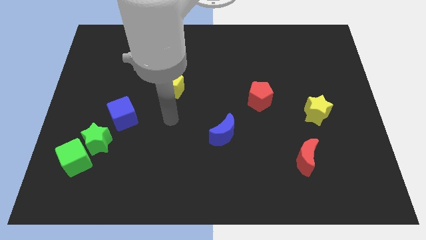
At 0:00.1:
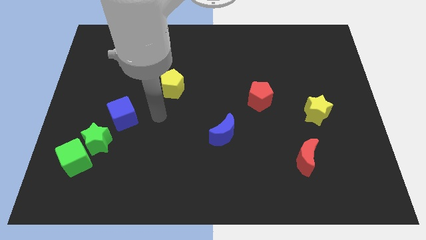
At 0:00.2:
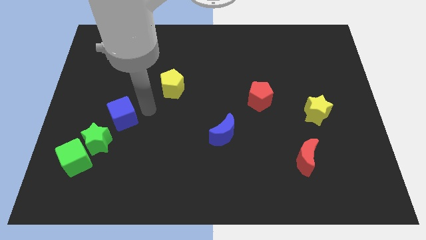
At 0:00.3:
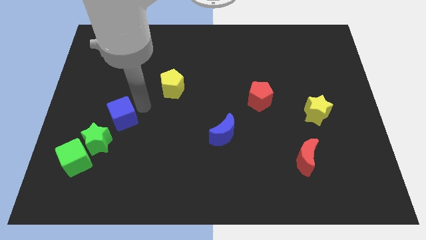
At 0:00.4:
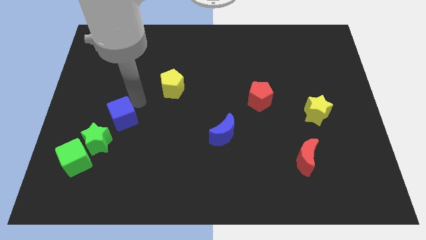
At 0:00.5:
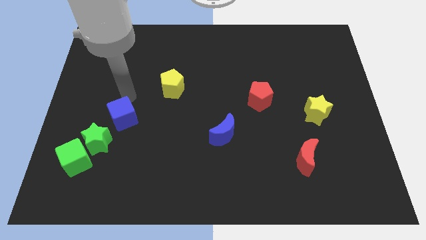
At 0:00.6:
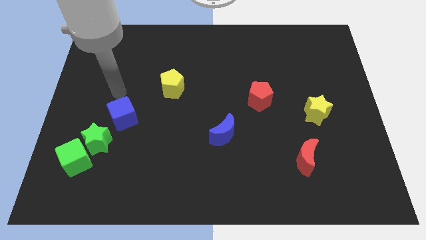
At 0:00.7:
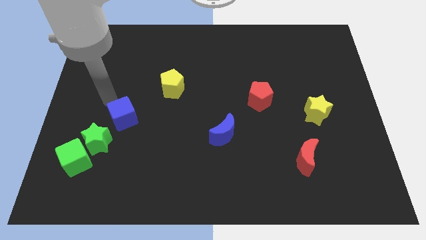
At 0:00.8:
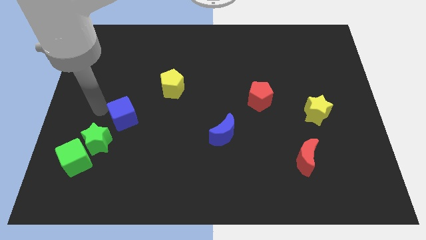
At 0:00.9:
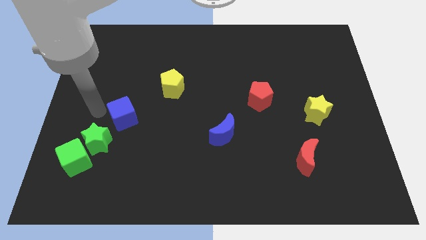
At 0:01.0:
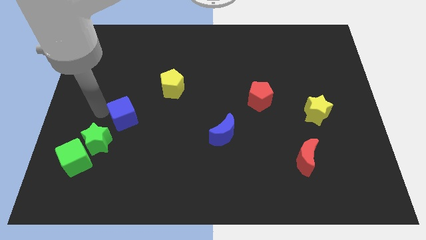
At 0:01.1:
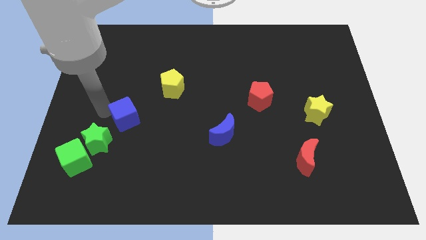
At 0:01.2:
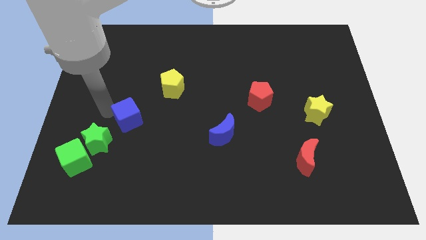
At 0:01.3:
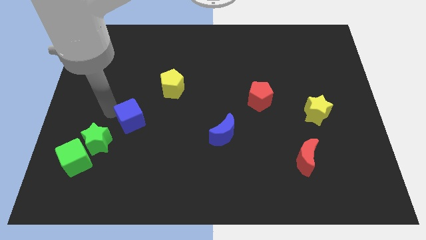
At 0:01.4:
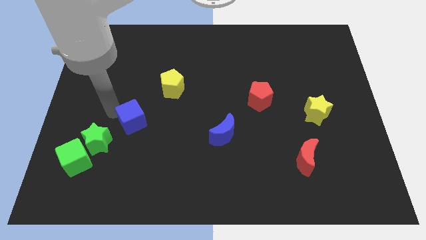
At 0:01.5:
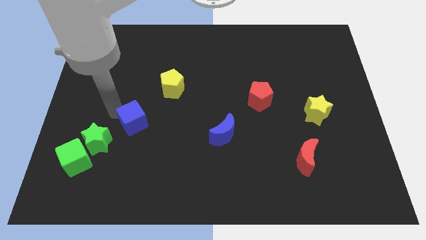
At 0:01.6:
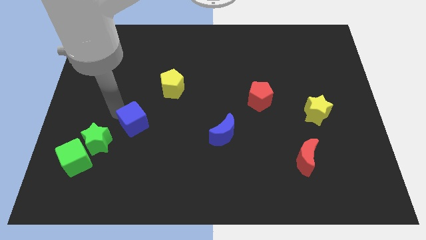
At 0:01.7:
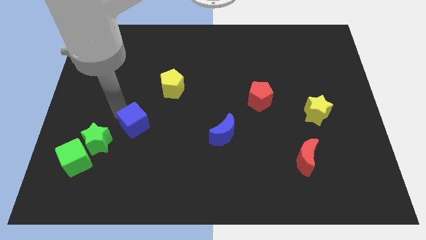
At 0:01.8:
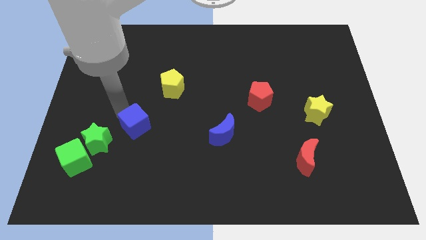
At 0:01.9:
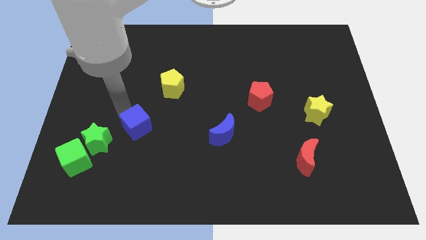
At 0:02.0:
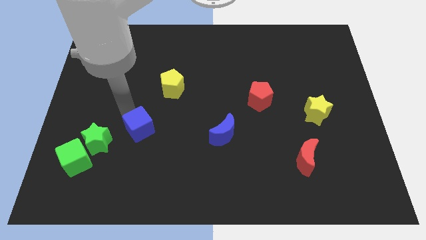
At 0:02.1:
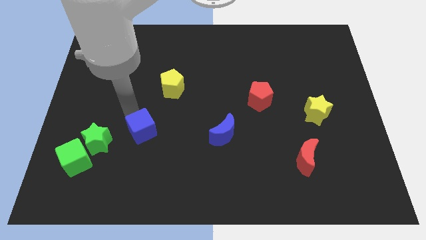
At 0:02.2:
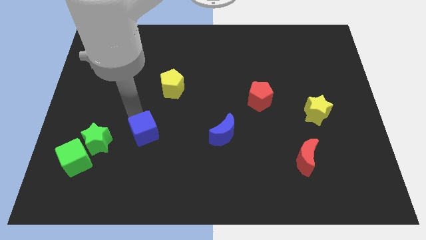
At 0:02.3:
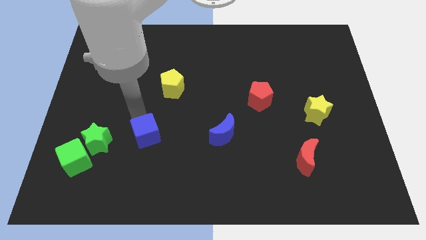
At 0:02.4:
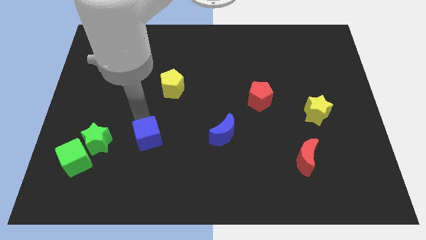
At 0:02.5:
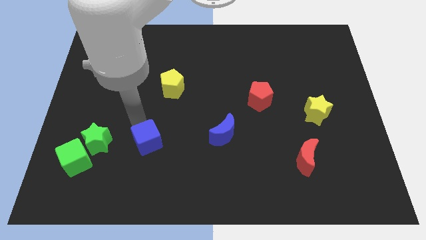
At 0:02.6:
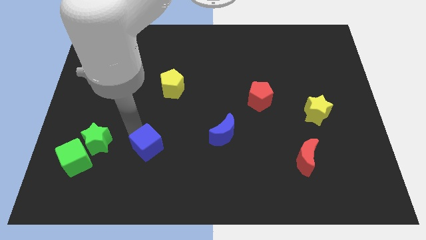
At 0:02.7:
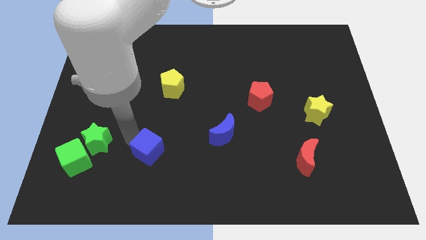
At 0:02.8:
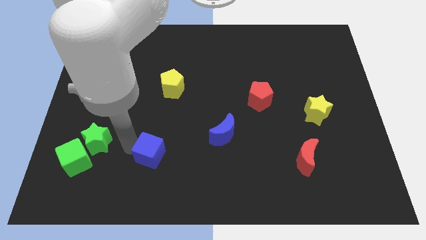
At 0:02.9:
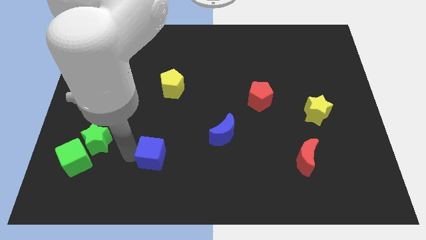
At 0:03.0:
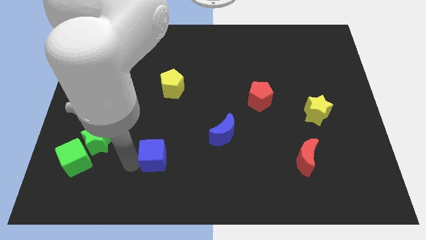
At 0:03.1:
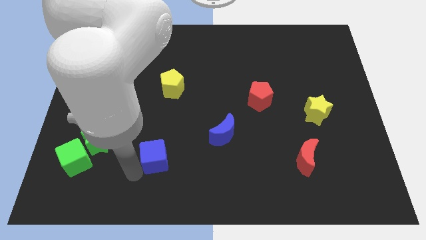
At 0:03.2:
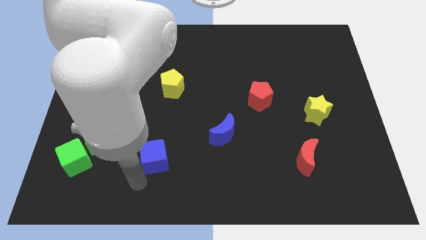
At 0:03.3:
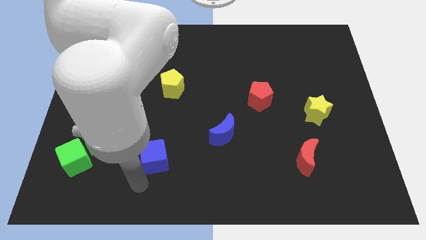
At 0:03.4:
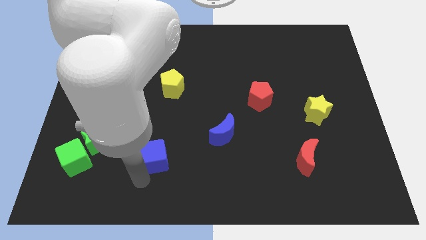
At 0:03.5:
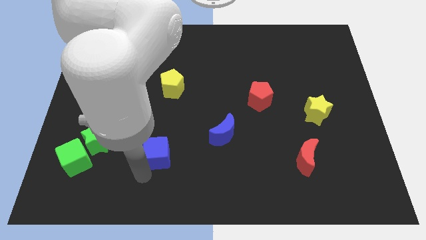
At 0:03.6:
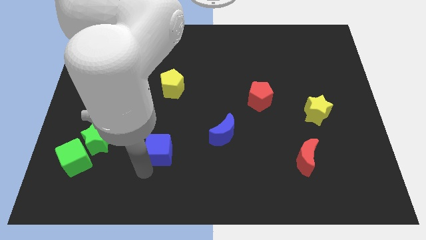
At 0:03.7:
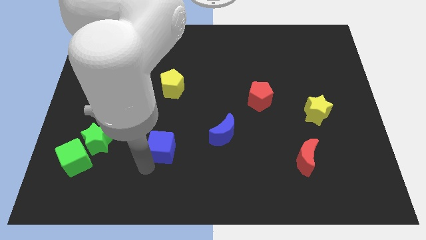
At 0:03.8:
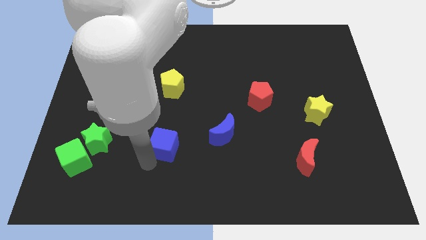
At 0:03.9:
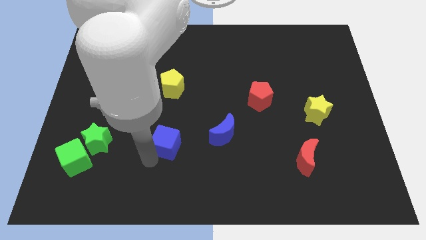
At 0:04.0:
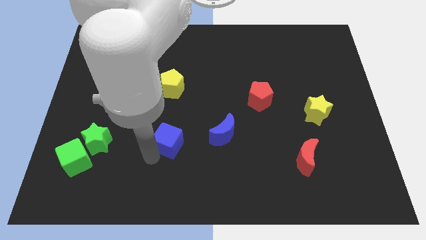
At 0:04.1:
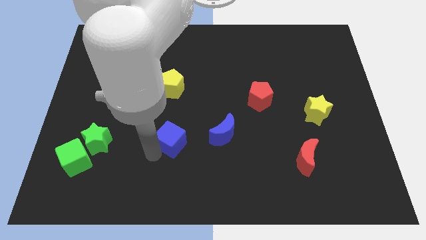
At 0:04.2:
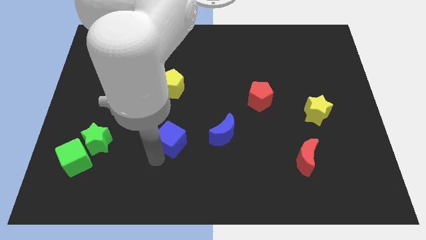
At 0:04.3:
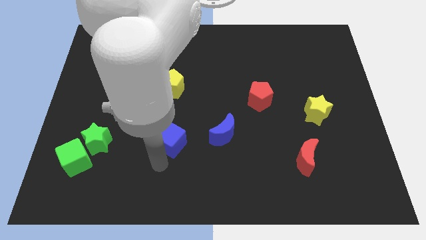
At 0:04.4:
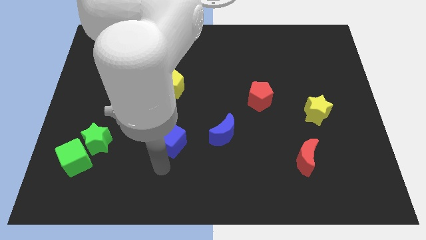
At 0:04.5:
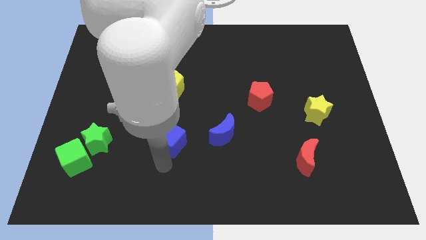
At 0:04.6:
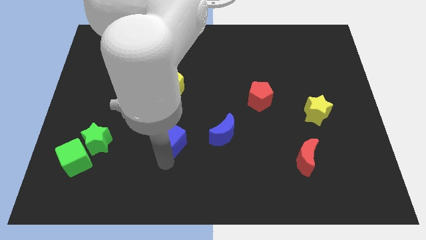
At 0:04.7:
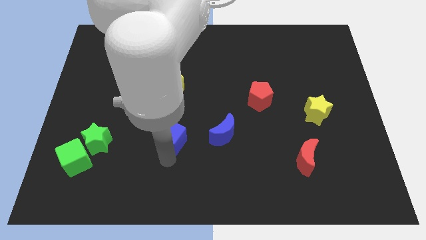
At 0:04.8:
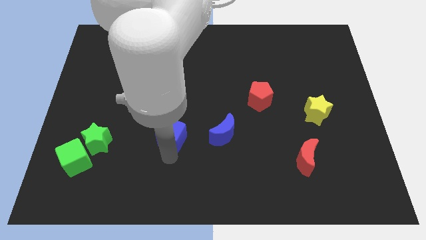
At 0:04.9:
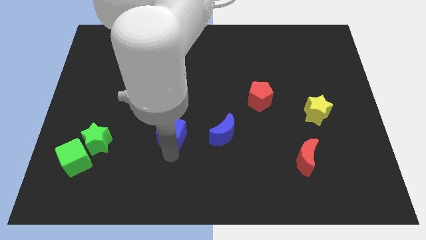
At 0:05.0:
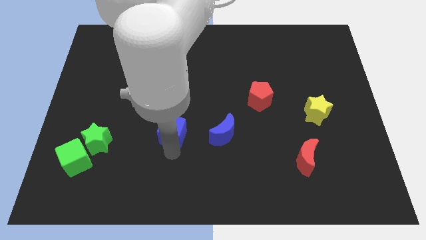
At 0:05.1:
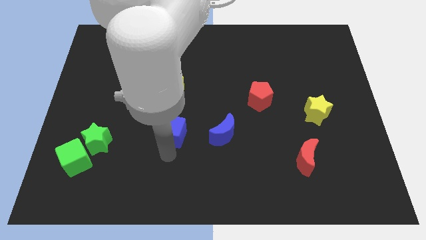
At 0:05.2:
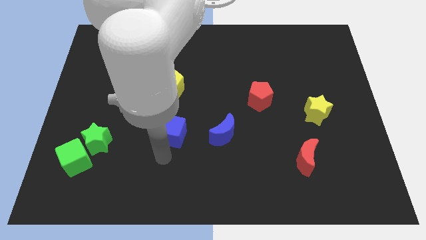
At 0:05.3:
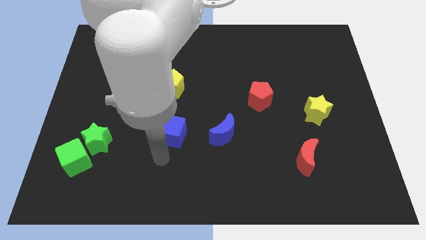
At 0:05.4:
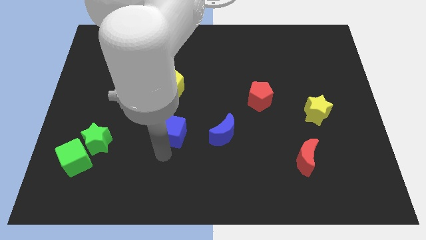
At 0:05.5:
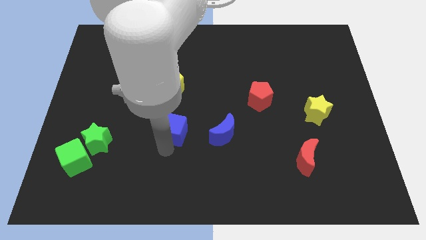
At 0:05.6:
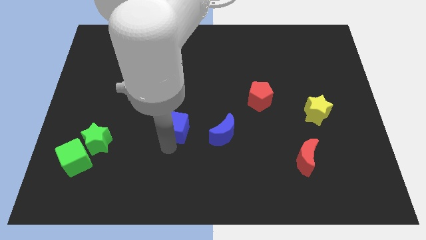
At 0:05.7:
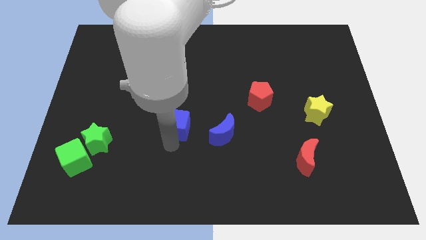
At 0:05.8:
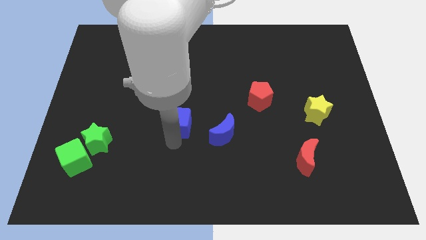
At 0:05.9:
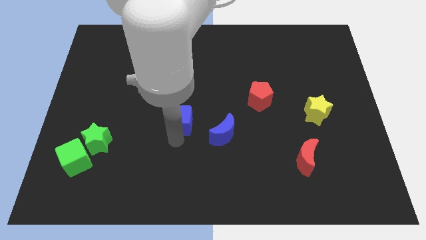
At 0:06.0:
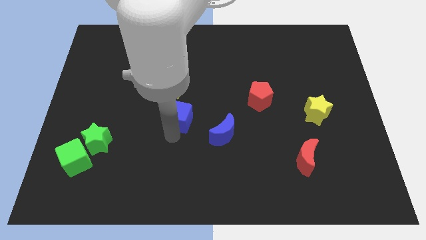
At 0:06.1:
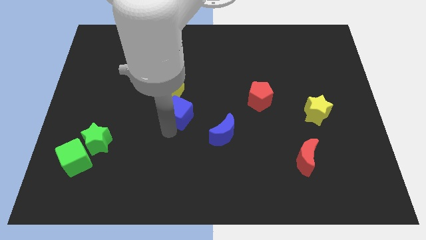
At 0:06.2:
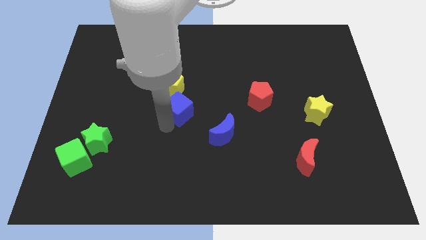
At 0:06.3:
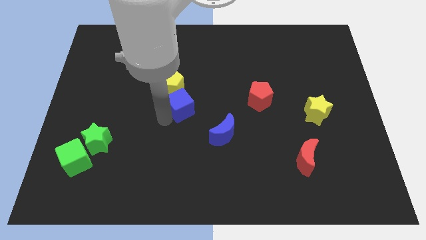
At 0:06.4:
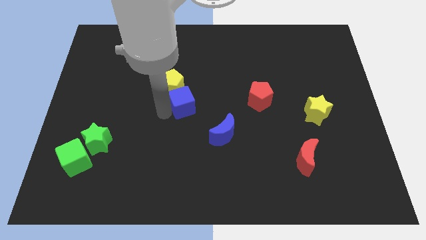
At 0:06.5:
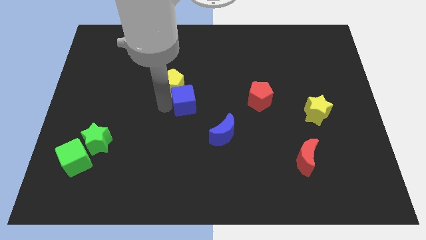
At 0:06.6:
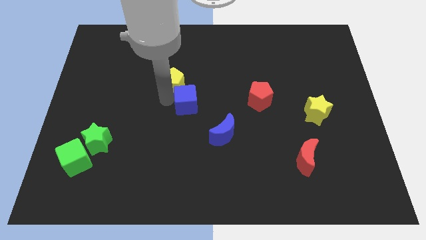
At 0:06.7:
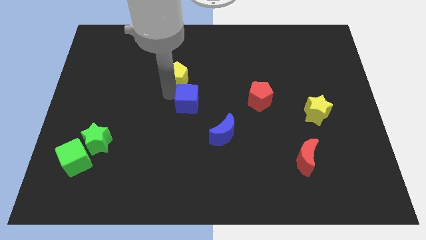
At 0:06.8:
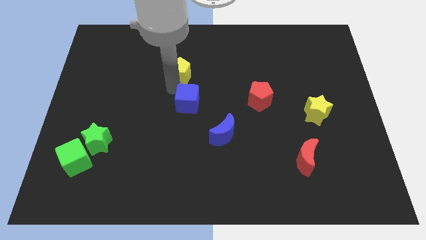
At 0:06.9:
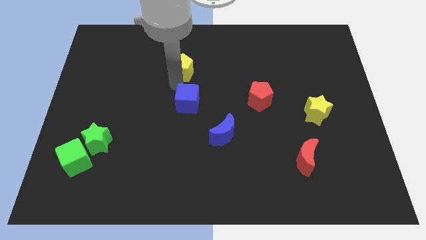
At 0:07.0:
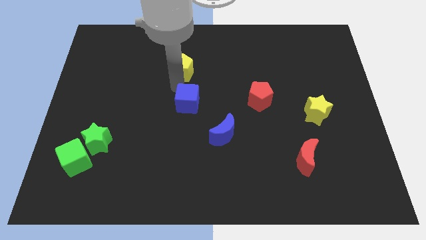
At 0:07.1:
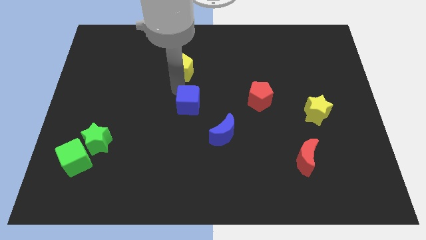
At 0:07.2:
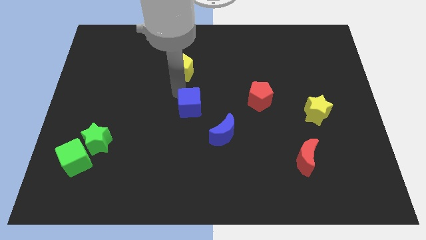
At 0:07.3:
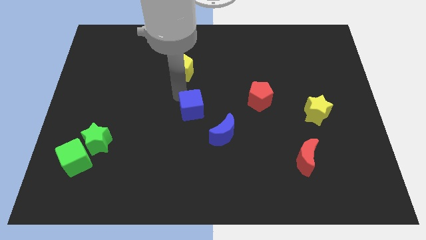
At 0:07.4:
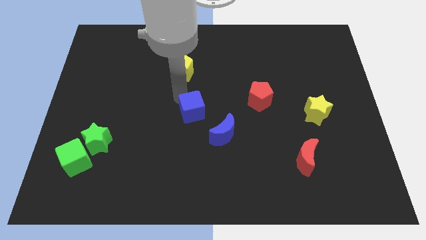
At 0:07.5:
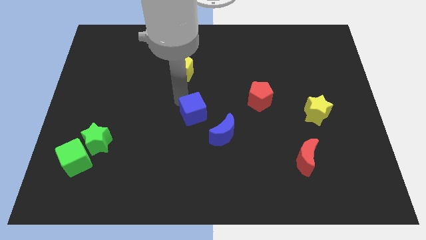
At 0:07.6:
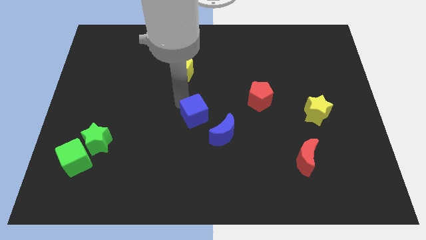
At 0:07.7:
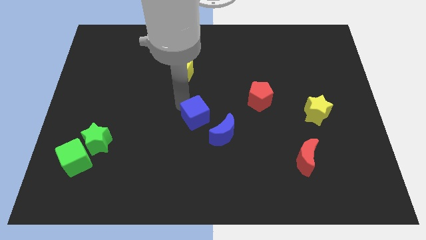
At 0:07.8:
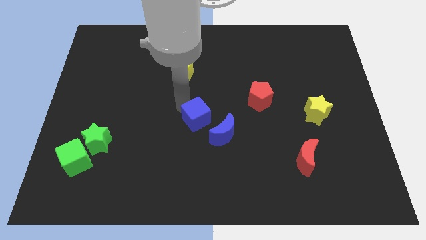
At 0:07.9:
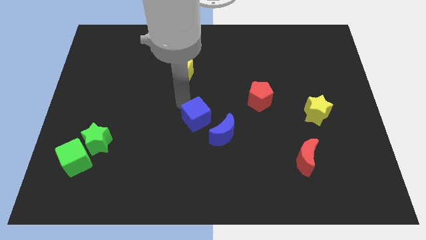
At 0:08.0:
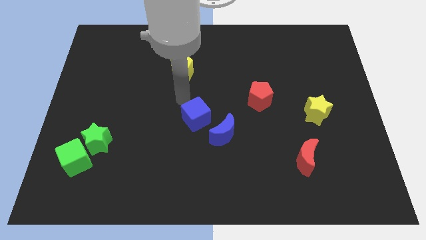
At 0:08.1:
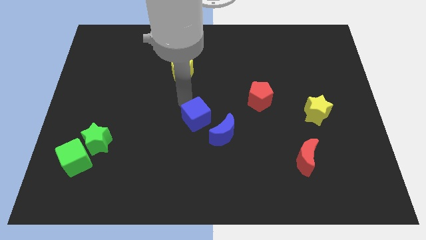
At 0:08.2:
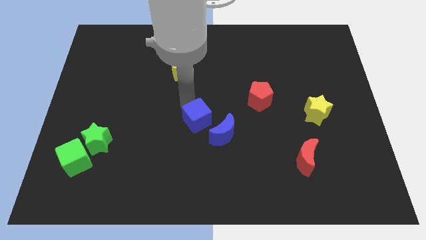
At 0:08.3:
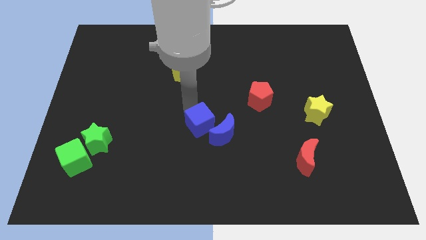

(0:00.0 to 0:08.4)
push the blue cube towards the blue moon

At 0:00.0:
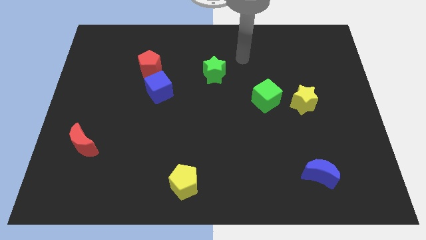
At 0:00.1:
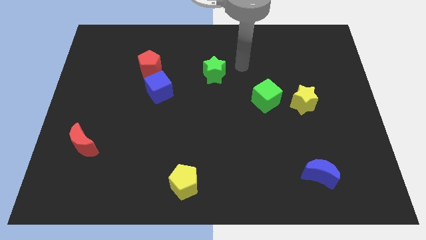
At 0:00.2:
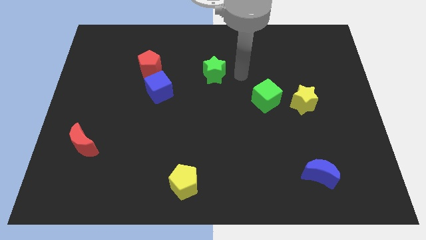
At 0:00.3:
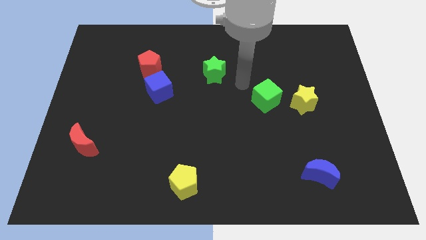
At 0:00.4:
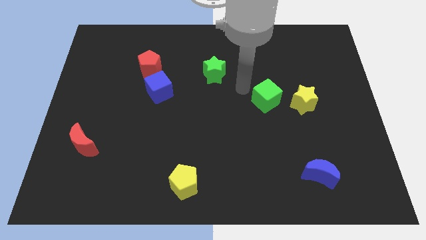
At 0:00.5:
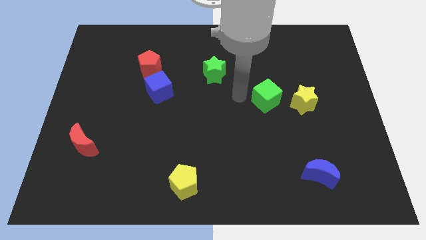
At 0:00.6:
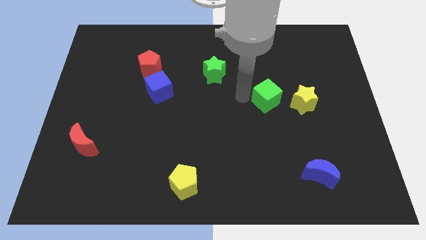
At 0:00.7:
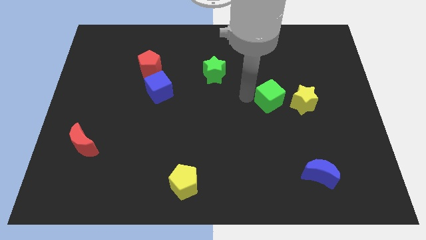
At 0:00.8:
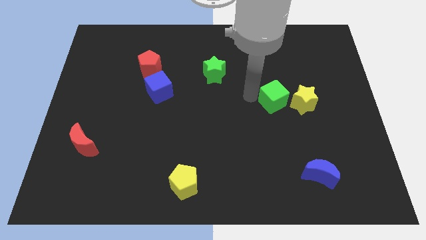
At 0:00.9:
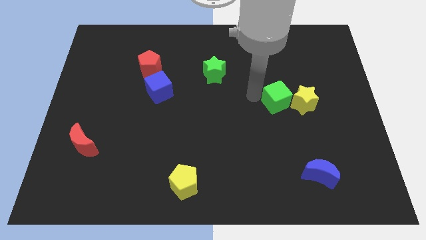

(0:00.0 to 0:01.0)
move the green cube close to the yellow star
